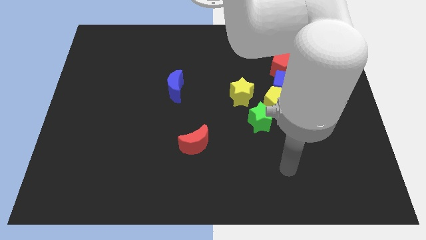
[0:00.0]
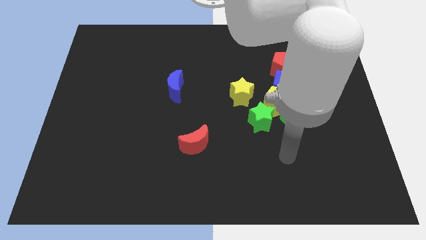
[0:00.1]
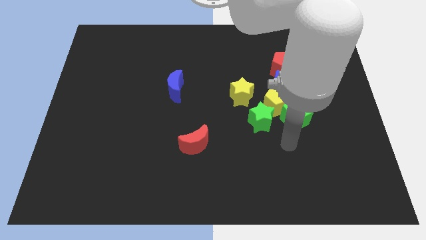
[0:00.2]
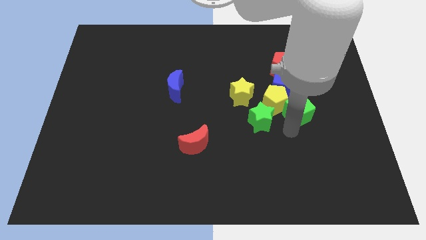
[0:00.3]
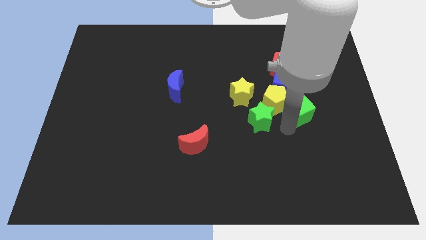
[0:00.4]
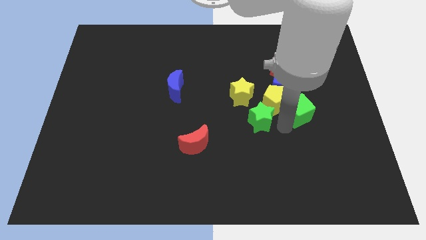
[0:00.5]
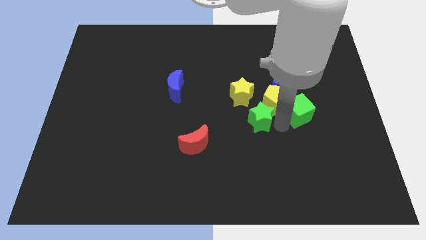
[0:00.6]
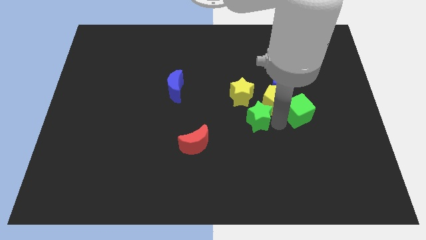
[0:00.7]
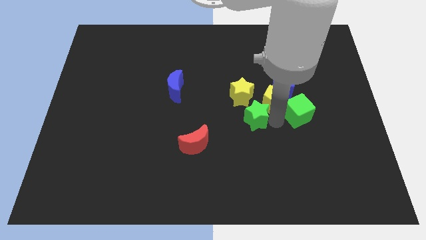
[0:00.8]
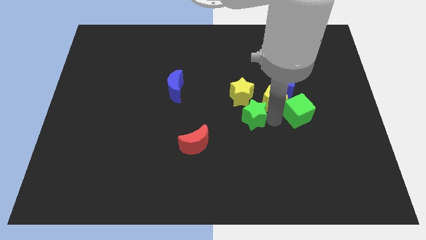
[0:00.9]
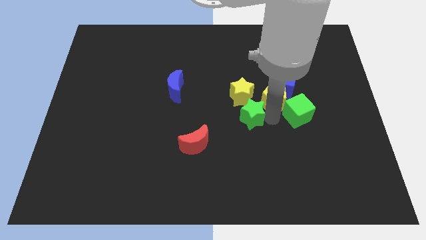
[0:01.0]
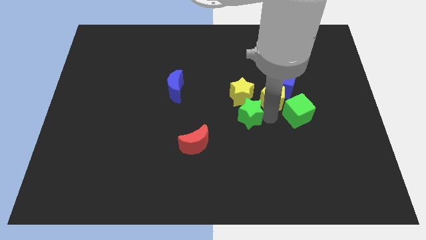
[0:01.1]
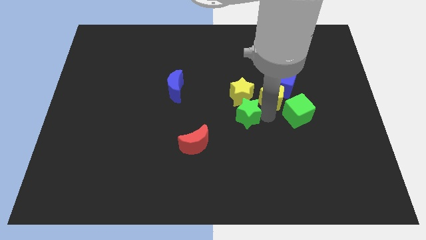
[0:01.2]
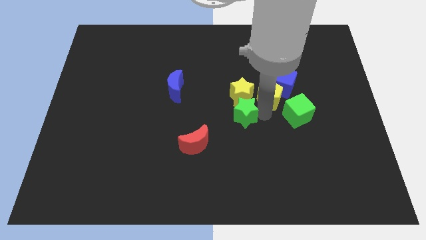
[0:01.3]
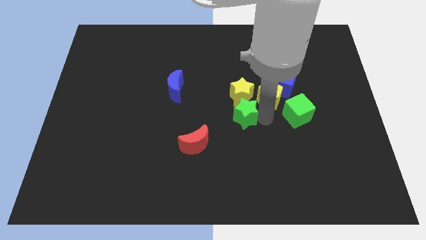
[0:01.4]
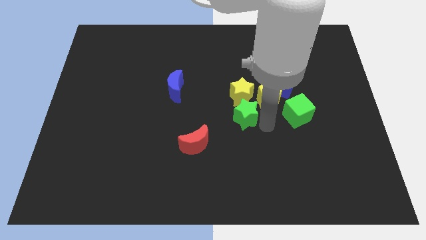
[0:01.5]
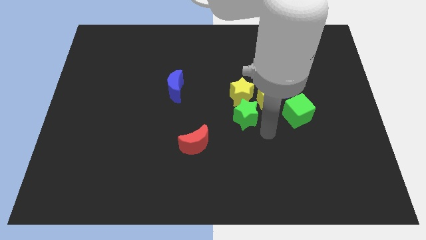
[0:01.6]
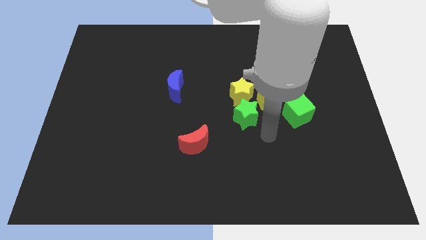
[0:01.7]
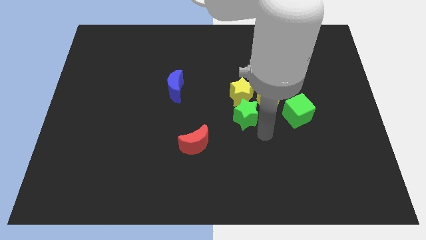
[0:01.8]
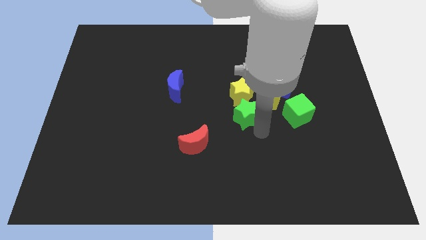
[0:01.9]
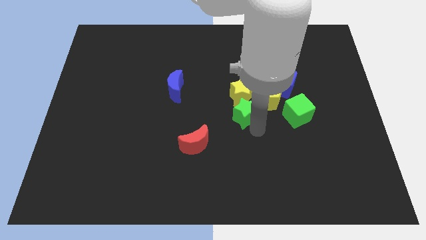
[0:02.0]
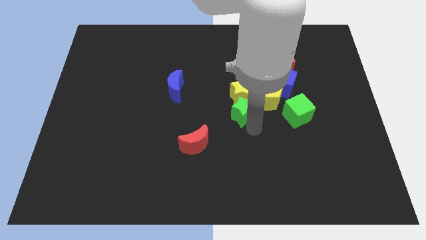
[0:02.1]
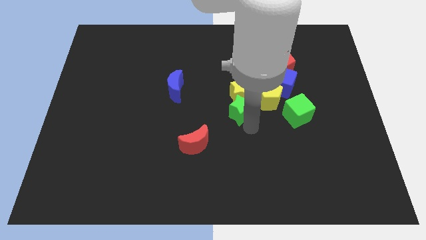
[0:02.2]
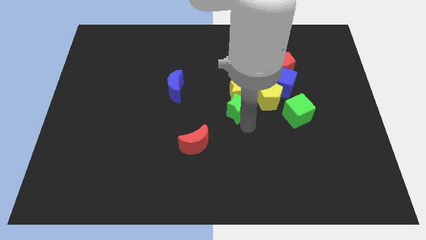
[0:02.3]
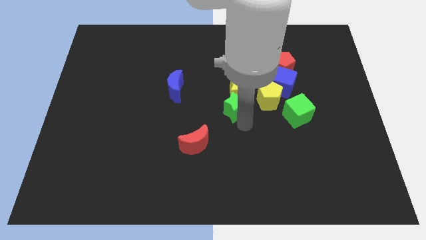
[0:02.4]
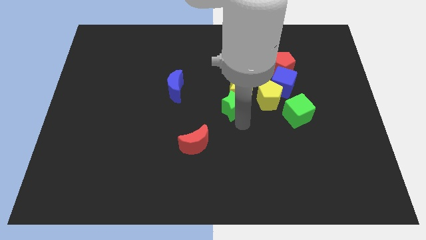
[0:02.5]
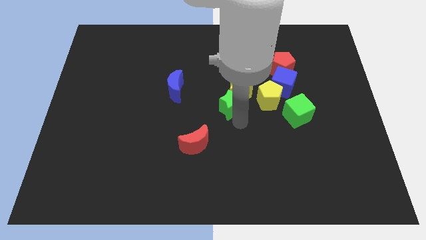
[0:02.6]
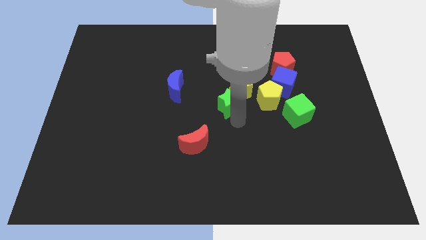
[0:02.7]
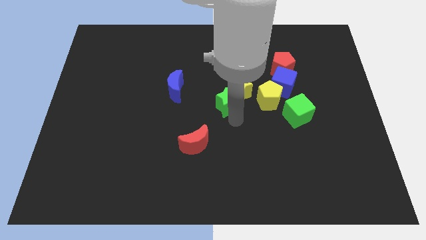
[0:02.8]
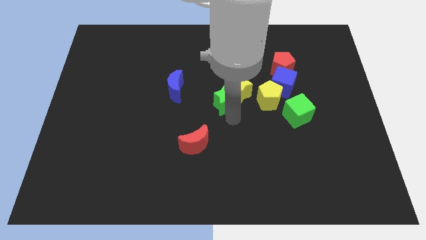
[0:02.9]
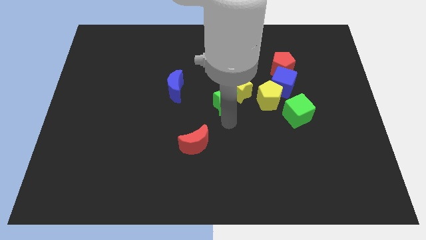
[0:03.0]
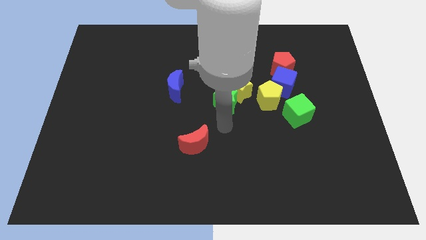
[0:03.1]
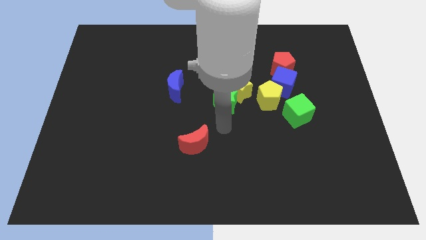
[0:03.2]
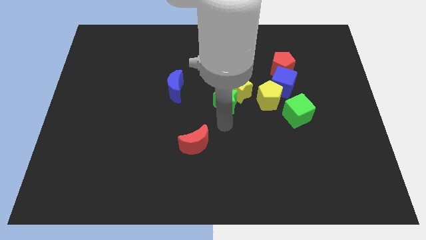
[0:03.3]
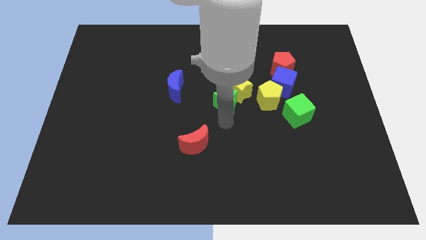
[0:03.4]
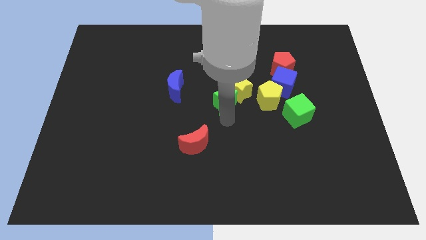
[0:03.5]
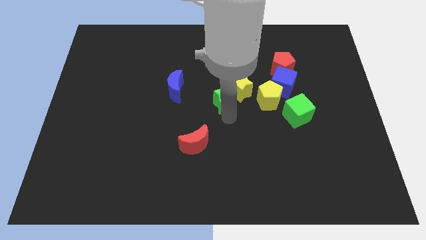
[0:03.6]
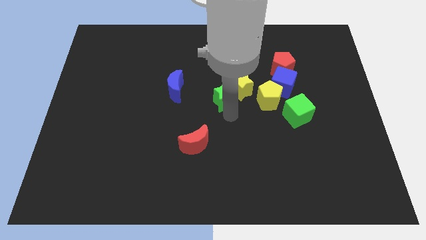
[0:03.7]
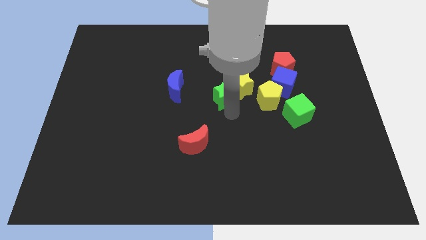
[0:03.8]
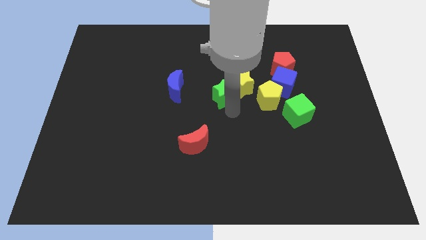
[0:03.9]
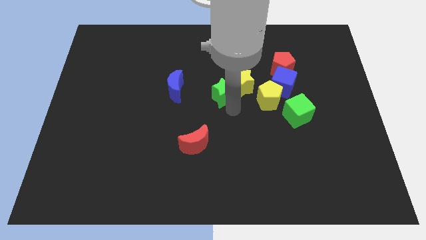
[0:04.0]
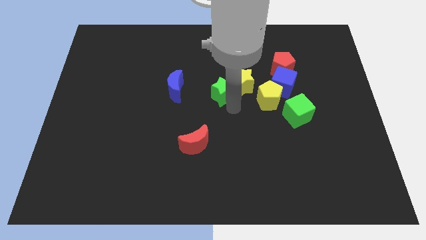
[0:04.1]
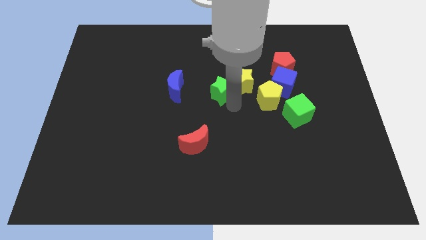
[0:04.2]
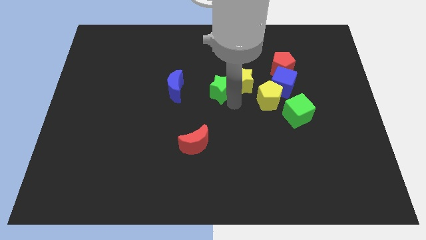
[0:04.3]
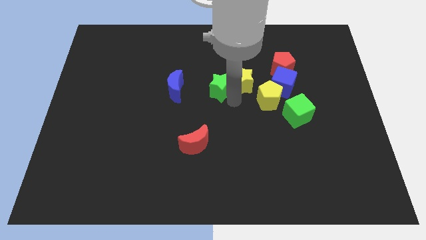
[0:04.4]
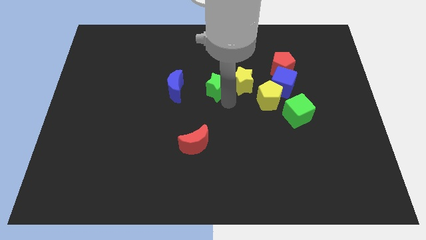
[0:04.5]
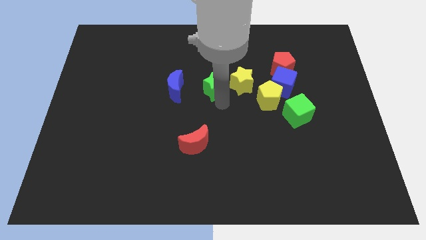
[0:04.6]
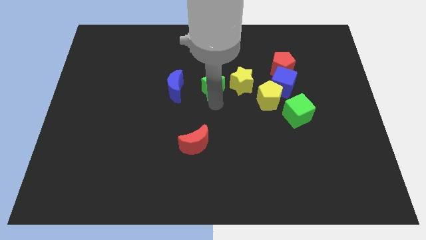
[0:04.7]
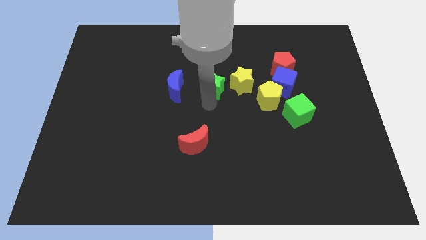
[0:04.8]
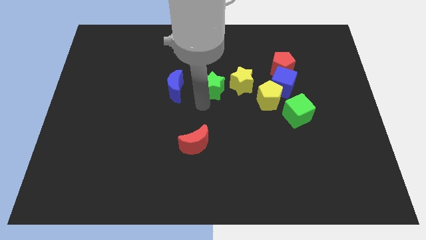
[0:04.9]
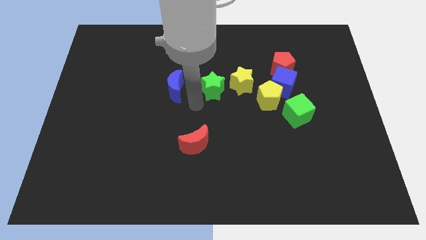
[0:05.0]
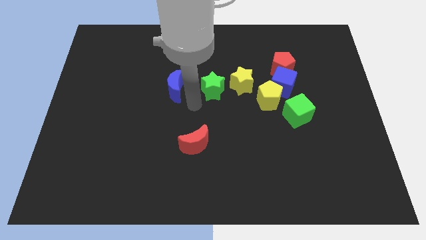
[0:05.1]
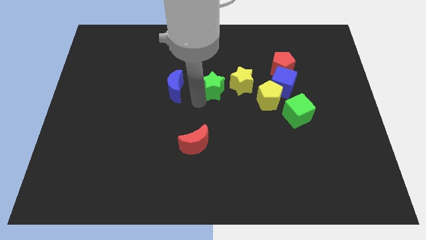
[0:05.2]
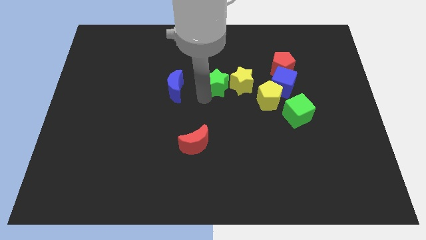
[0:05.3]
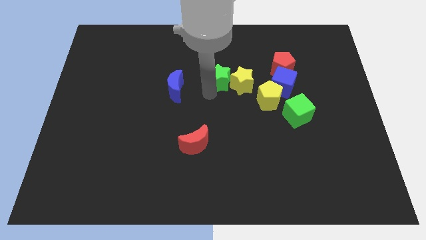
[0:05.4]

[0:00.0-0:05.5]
move the green star upwards a little

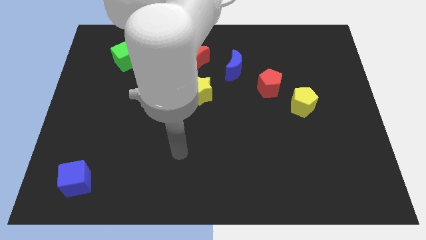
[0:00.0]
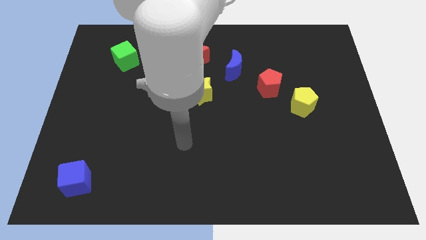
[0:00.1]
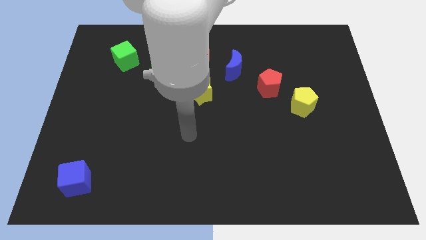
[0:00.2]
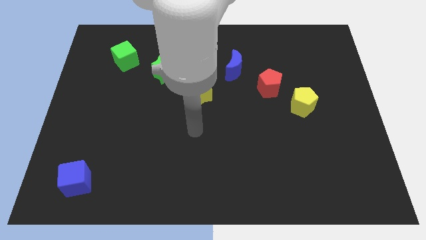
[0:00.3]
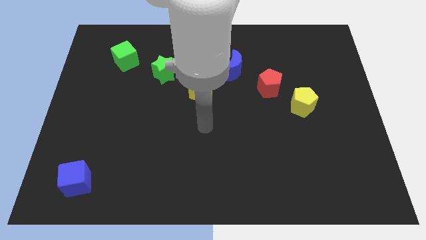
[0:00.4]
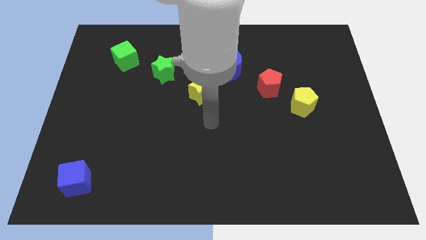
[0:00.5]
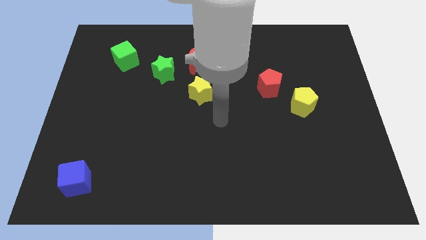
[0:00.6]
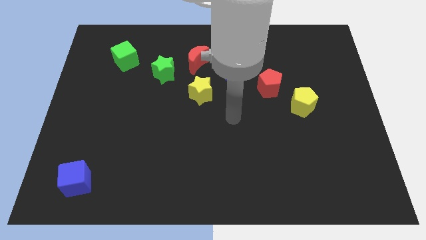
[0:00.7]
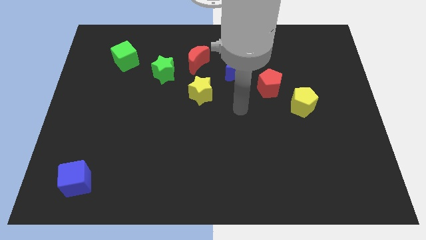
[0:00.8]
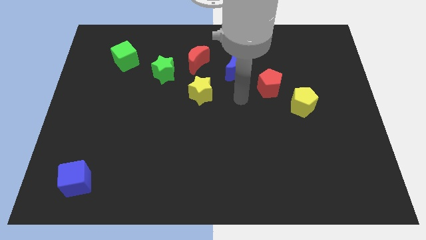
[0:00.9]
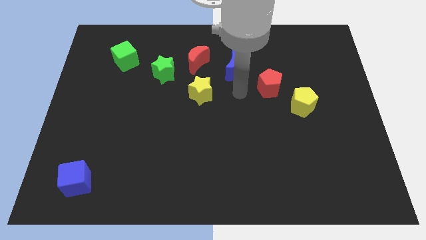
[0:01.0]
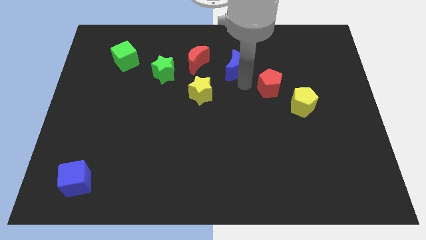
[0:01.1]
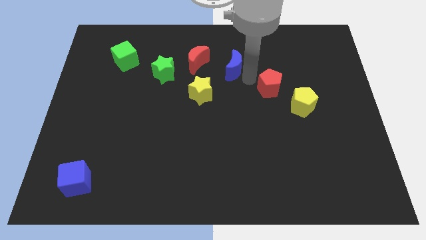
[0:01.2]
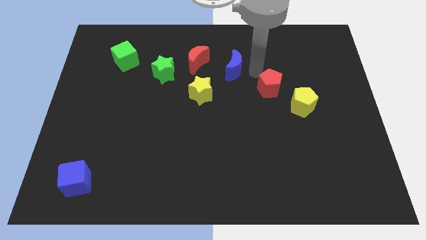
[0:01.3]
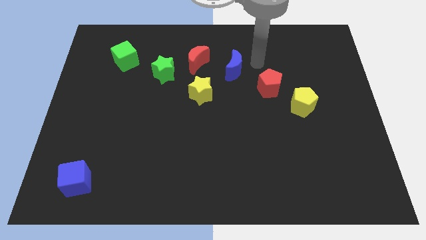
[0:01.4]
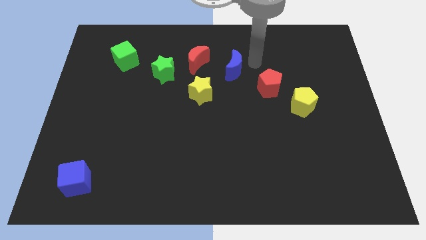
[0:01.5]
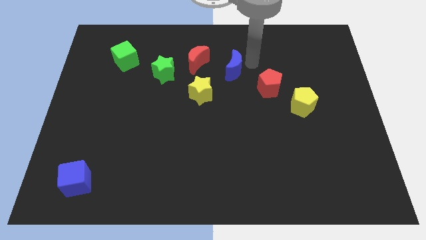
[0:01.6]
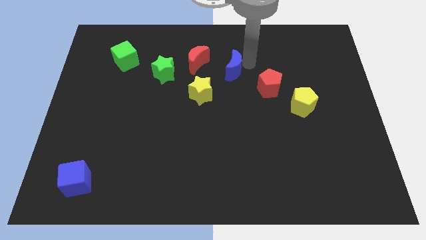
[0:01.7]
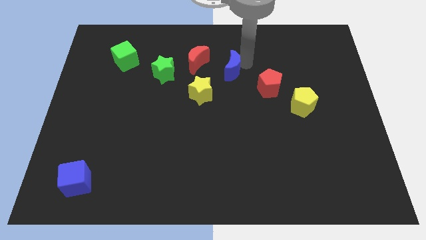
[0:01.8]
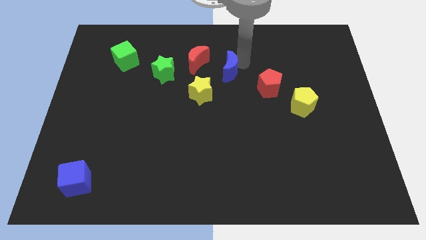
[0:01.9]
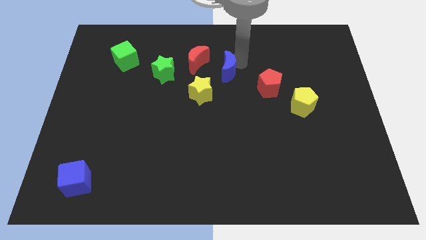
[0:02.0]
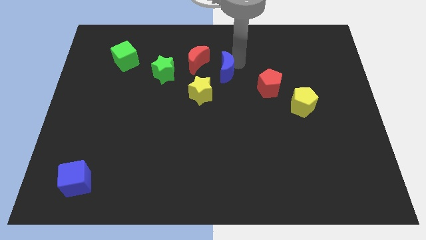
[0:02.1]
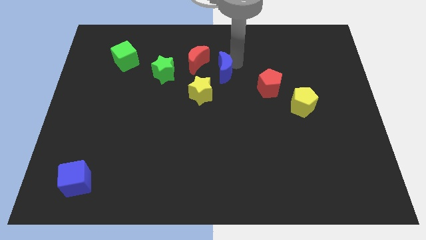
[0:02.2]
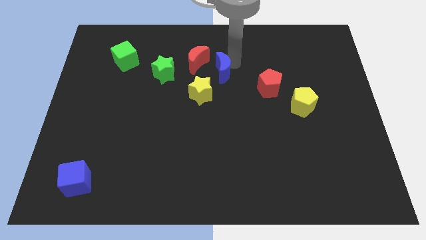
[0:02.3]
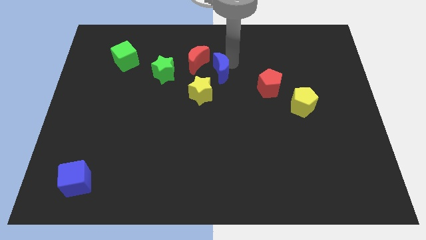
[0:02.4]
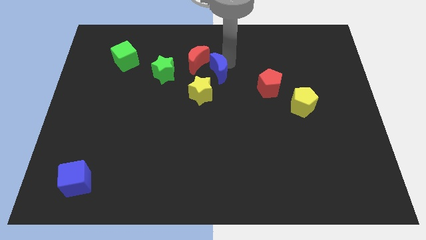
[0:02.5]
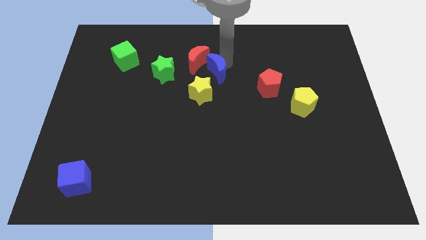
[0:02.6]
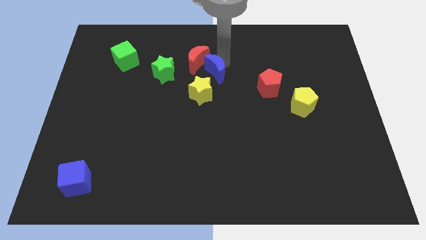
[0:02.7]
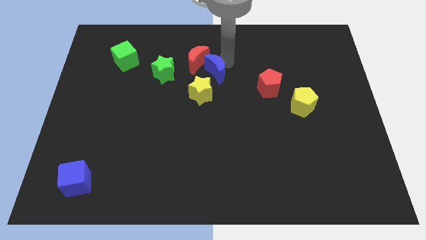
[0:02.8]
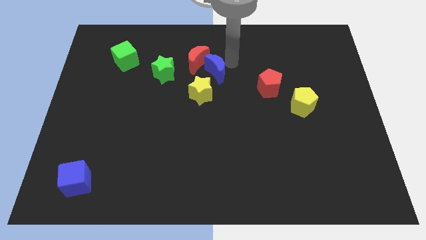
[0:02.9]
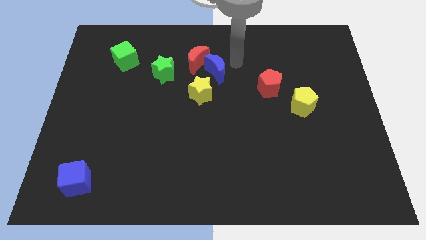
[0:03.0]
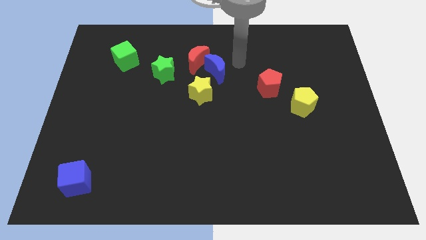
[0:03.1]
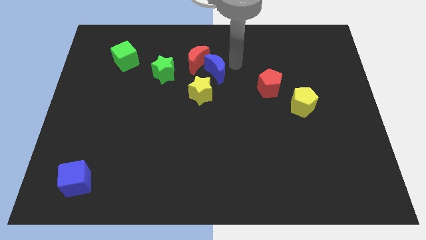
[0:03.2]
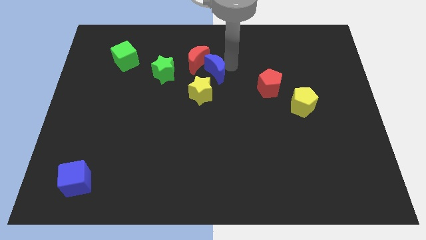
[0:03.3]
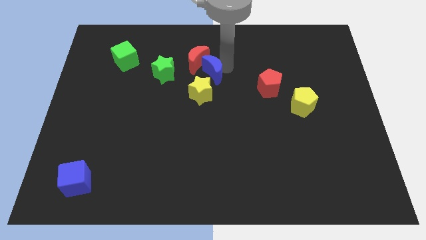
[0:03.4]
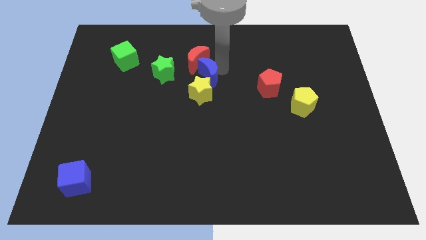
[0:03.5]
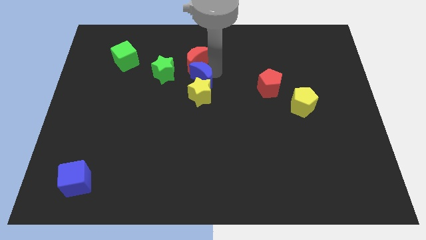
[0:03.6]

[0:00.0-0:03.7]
slightly push the blue moon diagonally down and to the left
